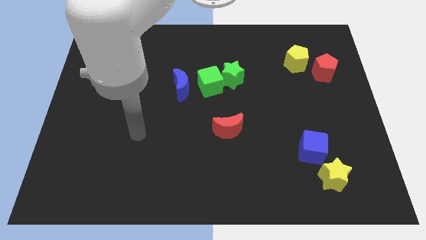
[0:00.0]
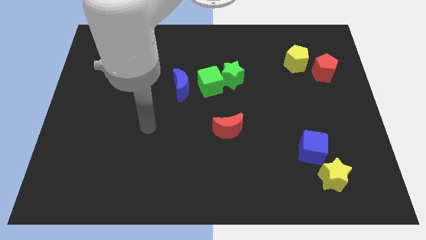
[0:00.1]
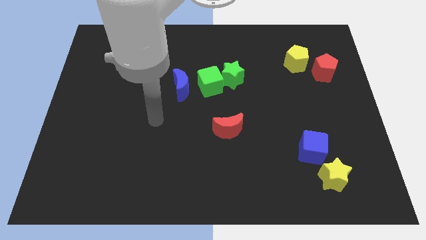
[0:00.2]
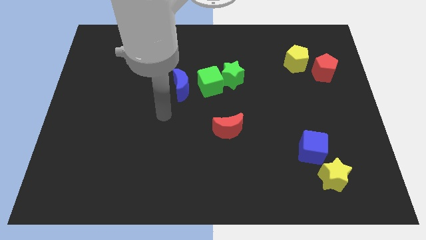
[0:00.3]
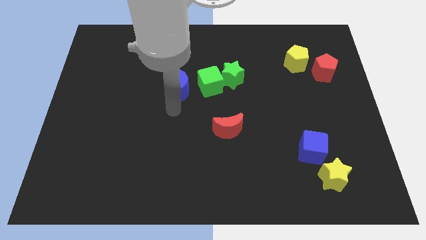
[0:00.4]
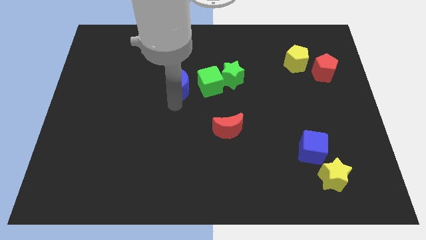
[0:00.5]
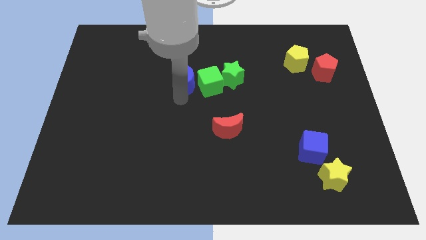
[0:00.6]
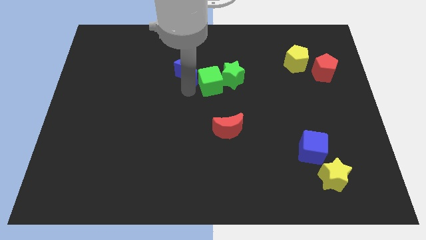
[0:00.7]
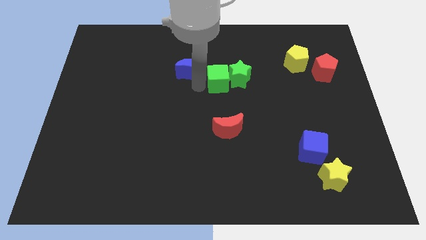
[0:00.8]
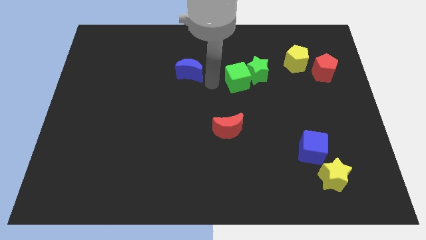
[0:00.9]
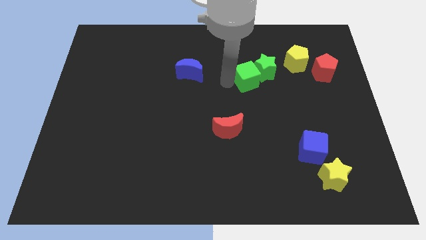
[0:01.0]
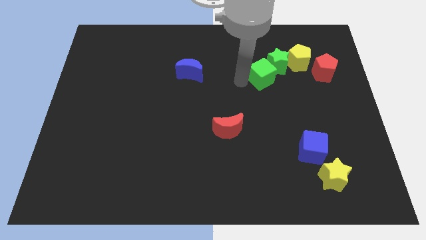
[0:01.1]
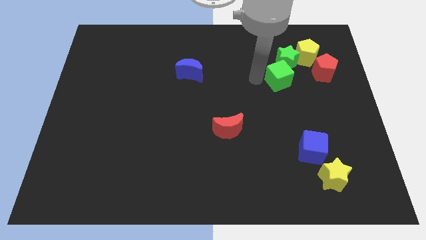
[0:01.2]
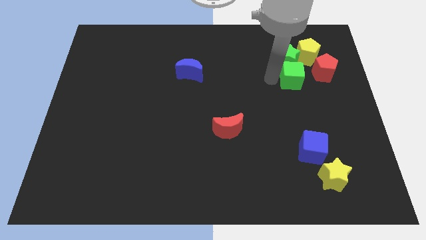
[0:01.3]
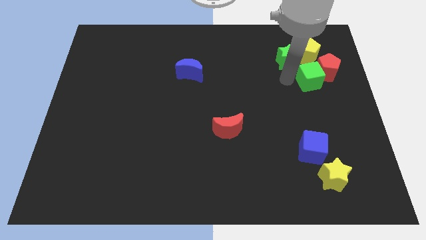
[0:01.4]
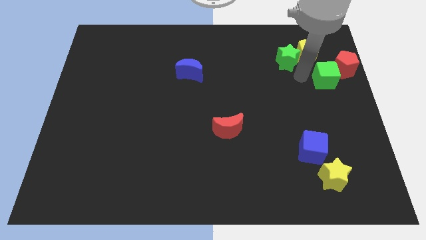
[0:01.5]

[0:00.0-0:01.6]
move the green star away from the green cube

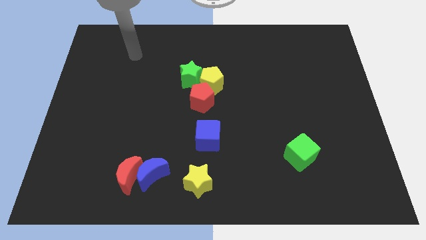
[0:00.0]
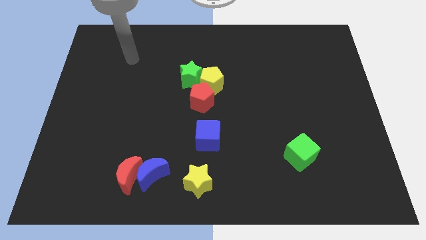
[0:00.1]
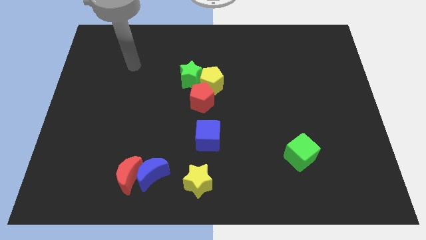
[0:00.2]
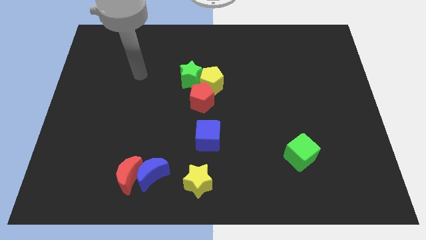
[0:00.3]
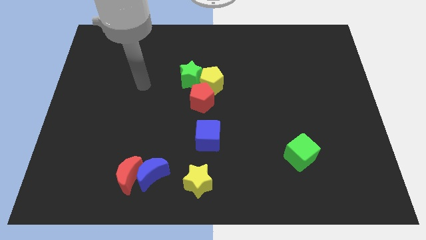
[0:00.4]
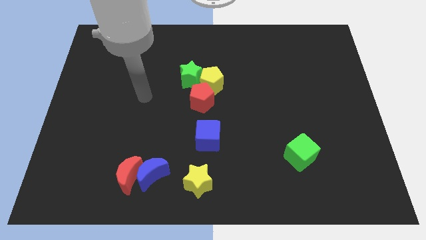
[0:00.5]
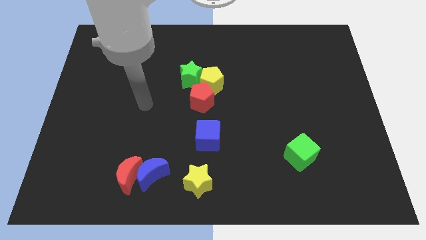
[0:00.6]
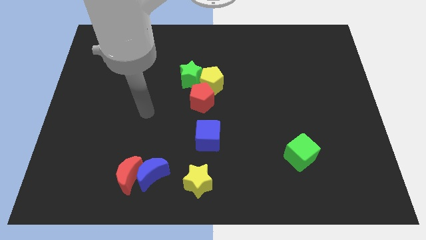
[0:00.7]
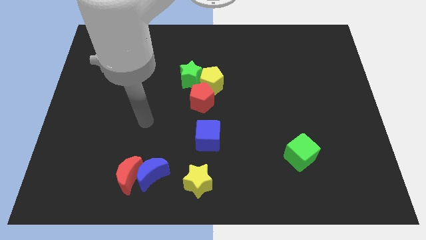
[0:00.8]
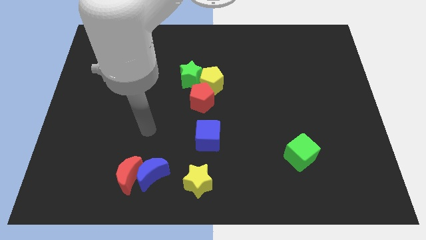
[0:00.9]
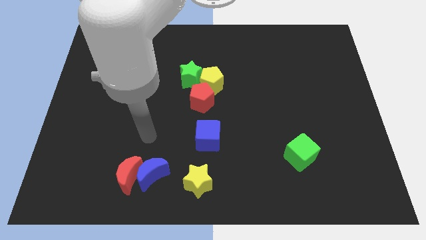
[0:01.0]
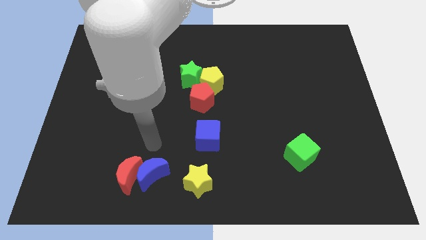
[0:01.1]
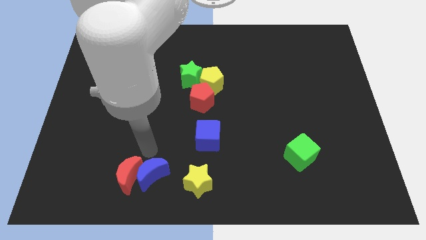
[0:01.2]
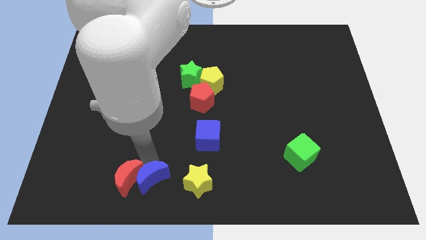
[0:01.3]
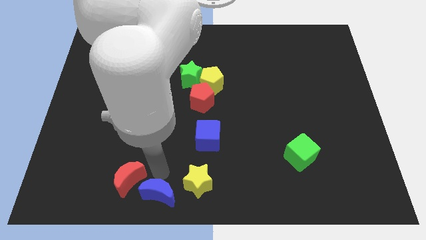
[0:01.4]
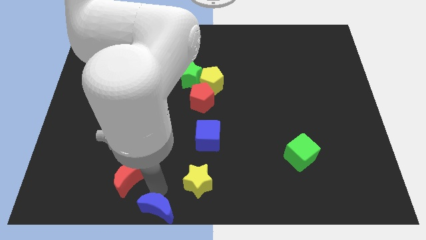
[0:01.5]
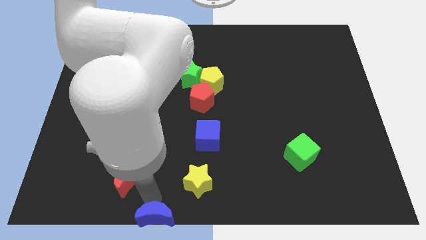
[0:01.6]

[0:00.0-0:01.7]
separate the red moon from the blue moon

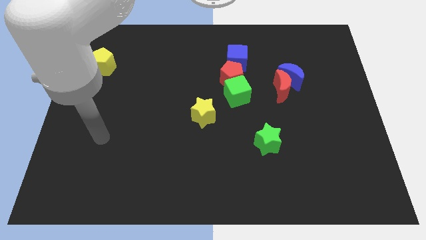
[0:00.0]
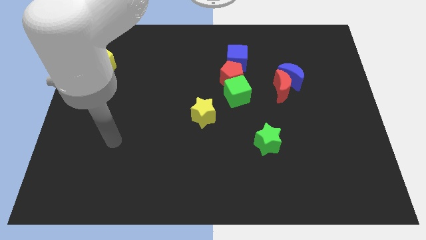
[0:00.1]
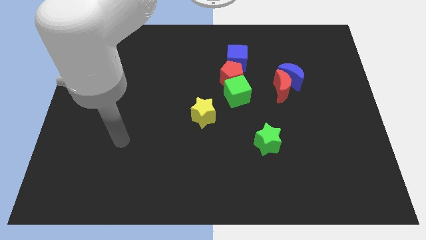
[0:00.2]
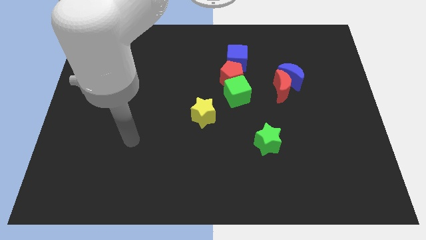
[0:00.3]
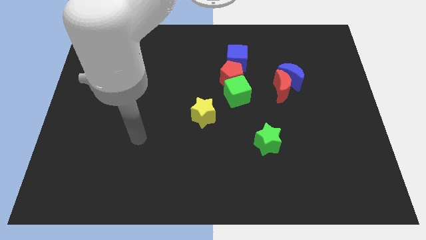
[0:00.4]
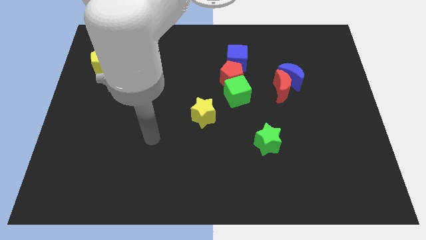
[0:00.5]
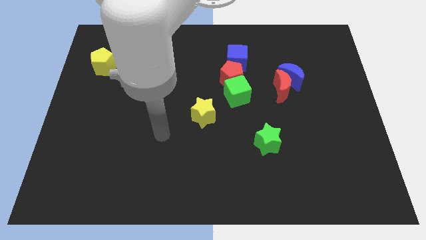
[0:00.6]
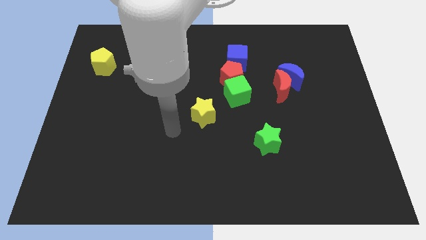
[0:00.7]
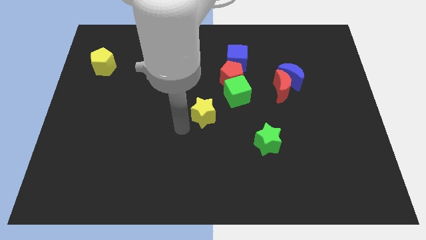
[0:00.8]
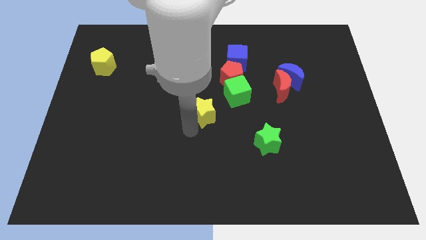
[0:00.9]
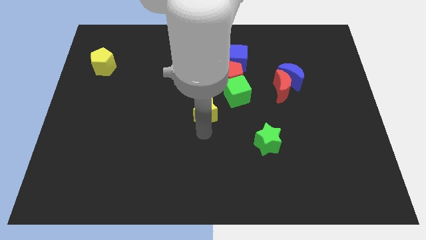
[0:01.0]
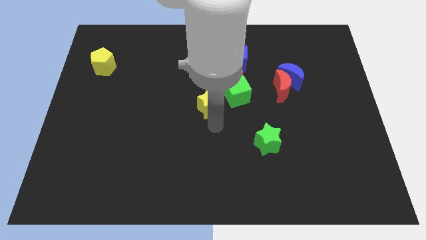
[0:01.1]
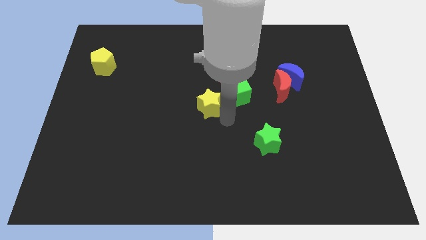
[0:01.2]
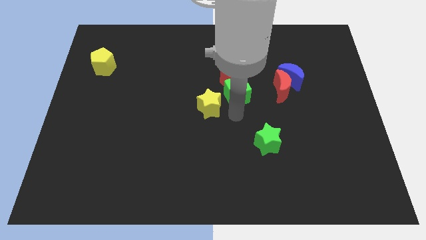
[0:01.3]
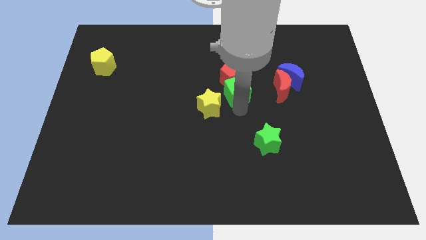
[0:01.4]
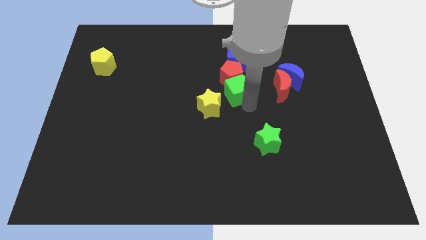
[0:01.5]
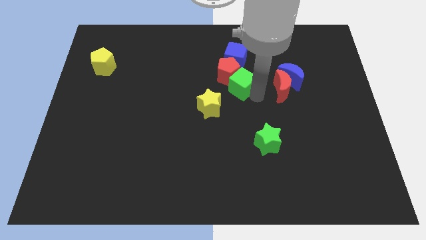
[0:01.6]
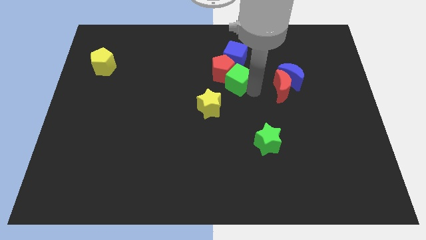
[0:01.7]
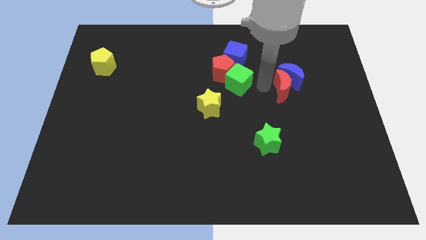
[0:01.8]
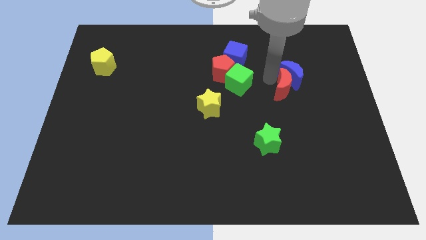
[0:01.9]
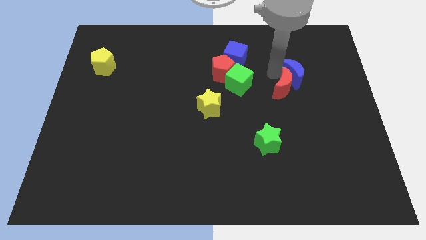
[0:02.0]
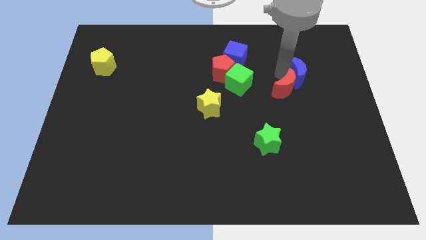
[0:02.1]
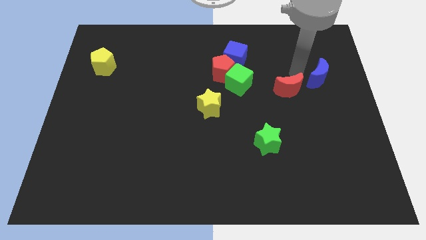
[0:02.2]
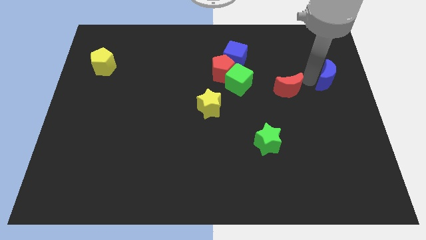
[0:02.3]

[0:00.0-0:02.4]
pull the red moon apart from the blue moon

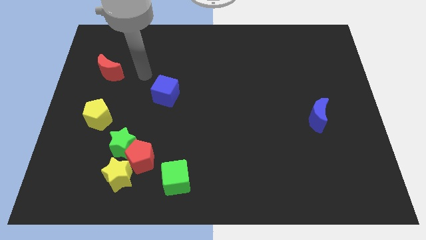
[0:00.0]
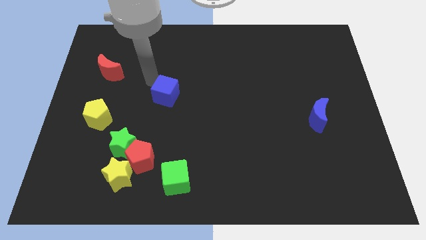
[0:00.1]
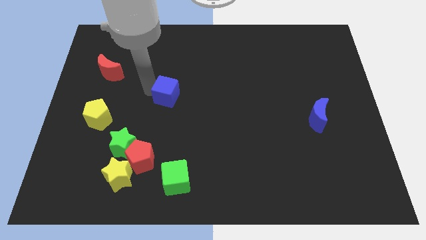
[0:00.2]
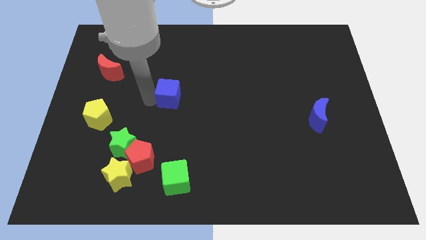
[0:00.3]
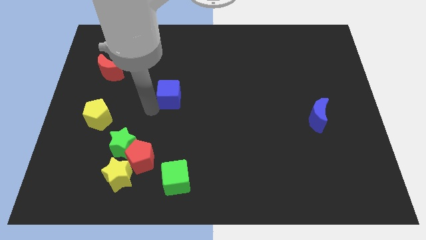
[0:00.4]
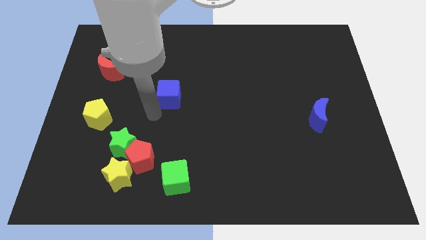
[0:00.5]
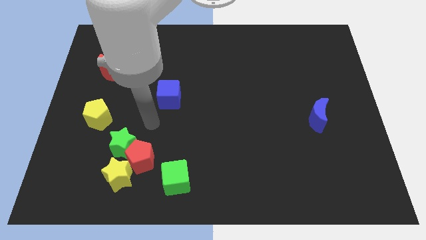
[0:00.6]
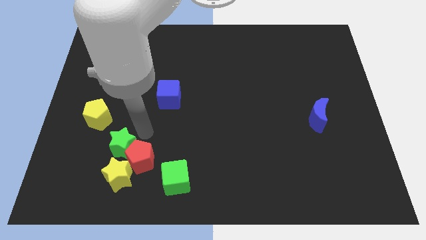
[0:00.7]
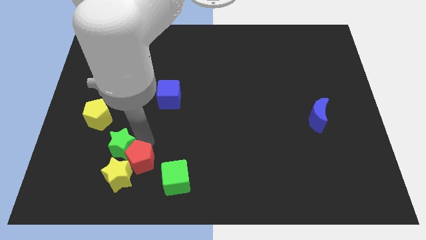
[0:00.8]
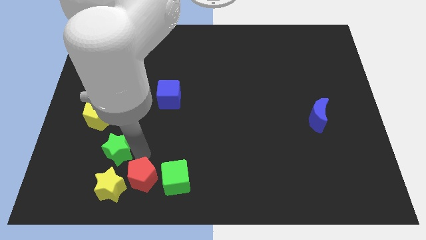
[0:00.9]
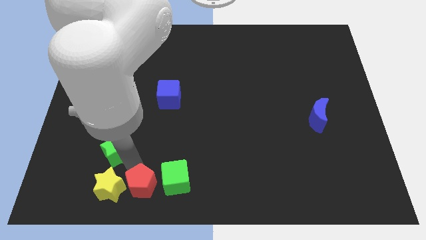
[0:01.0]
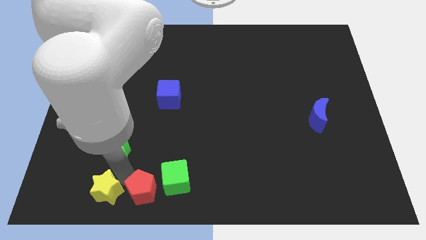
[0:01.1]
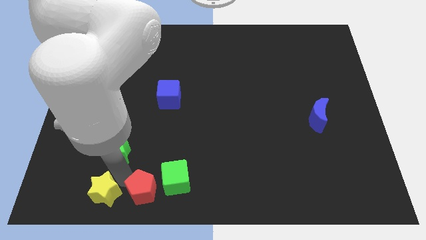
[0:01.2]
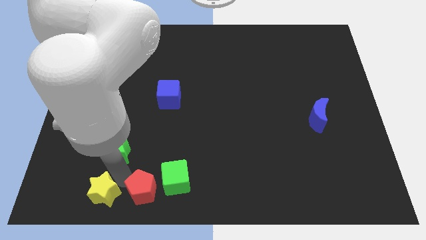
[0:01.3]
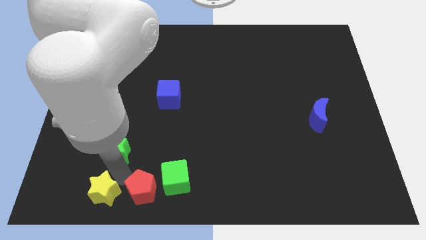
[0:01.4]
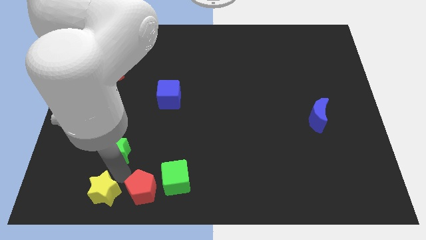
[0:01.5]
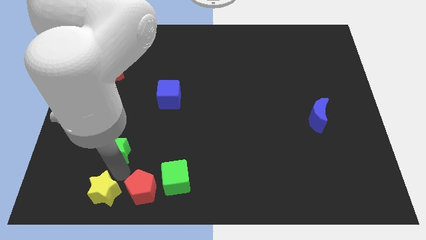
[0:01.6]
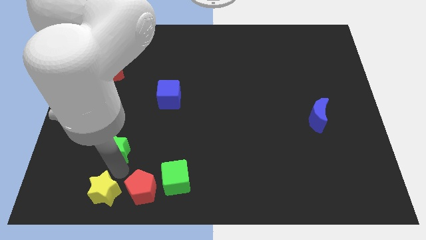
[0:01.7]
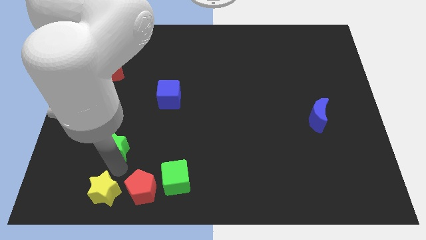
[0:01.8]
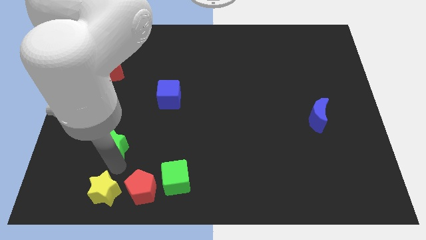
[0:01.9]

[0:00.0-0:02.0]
pull the green star apart from the red pentagon and yellow star

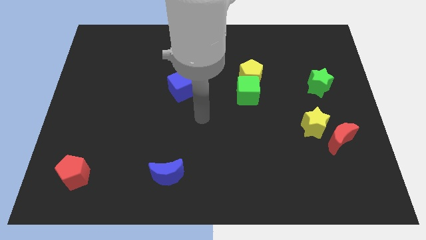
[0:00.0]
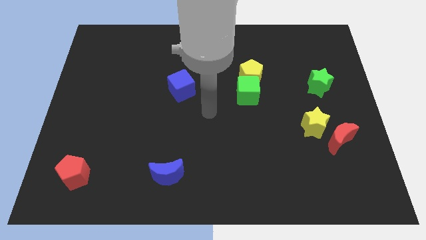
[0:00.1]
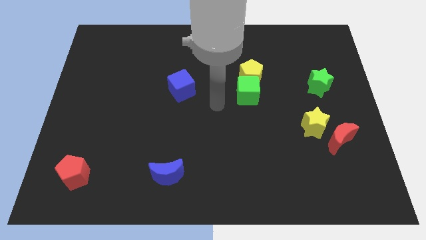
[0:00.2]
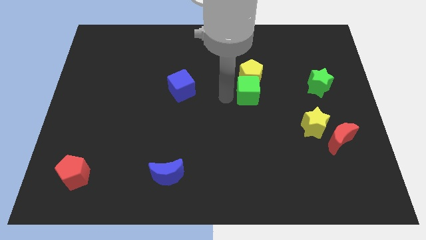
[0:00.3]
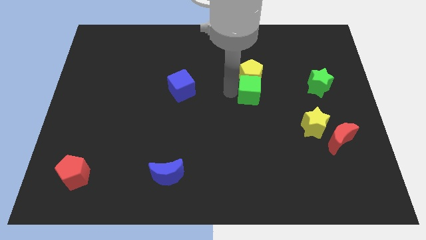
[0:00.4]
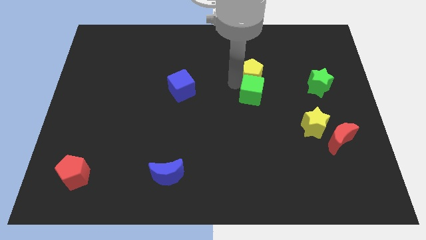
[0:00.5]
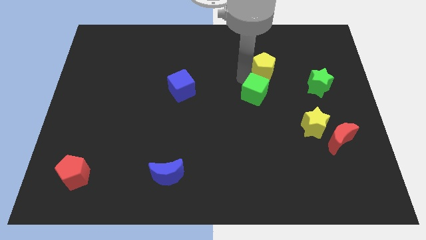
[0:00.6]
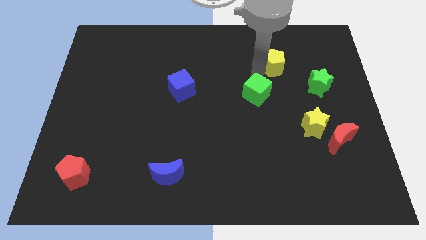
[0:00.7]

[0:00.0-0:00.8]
pull the green cube apart from the yellow pentagon

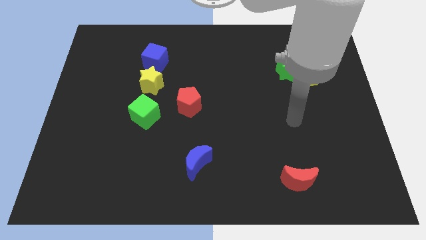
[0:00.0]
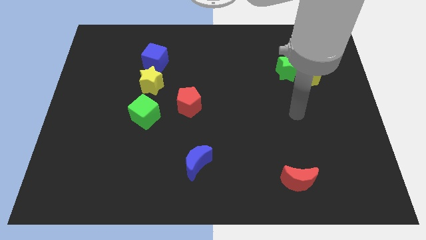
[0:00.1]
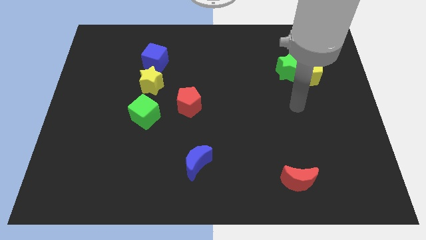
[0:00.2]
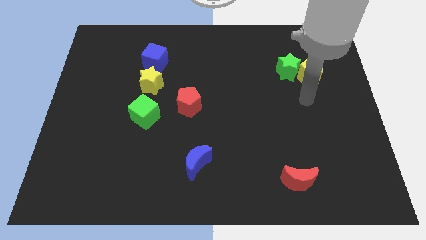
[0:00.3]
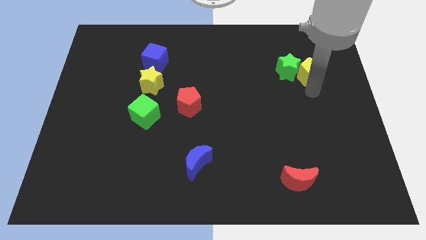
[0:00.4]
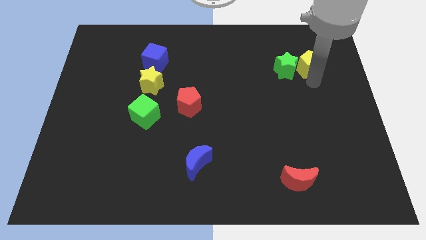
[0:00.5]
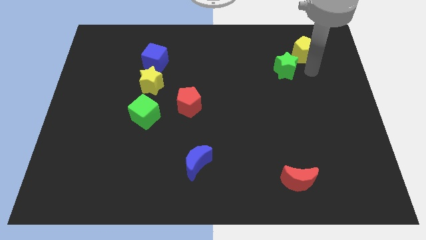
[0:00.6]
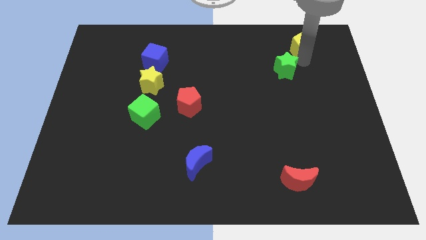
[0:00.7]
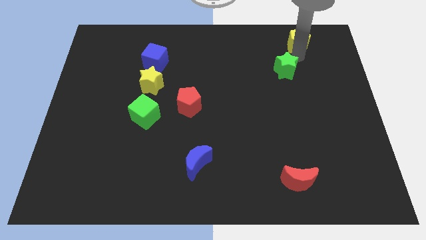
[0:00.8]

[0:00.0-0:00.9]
move the green star away from the yellow pentagon
